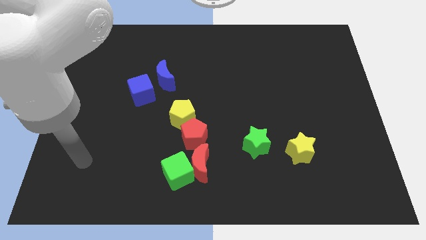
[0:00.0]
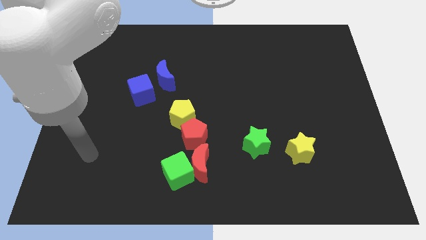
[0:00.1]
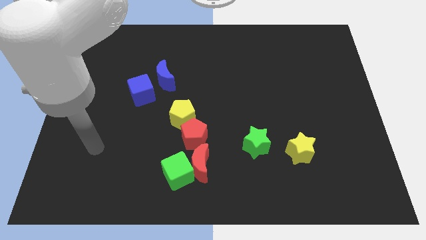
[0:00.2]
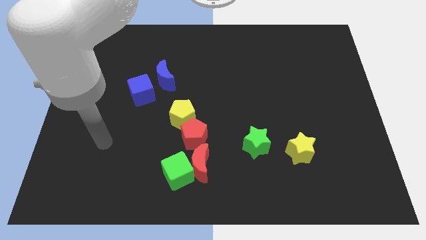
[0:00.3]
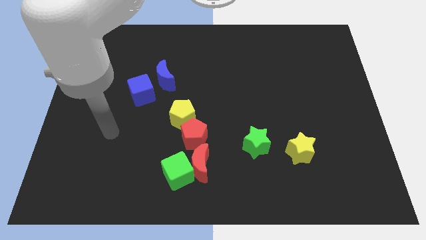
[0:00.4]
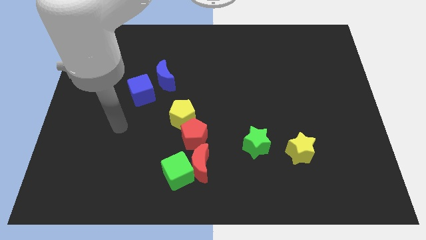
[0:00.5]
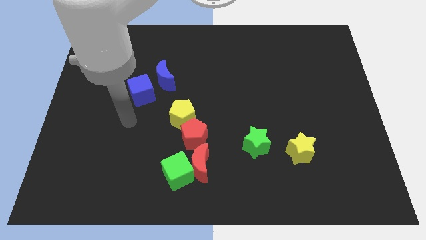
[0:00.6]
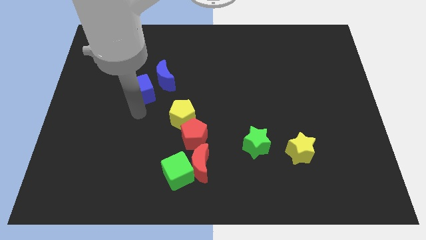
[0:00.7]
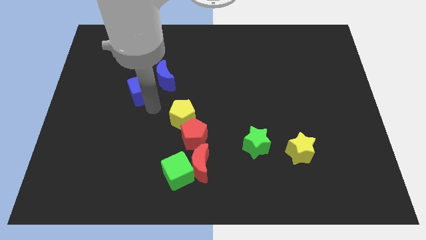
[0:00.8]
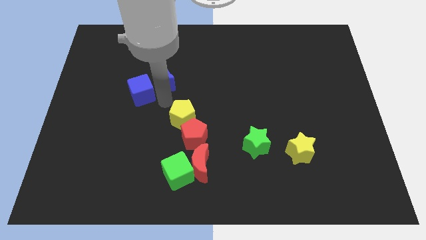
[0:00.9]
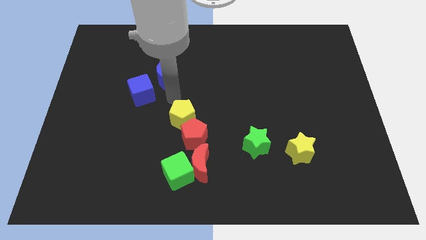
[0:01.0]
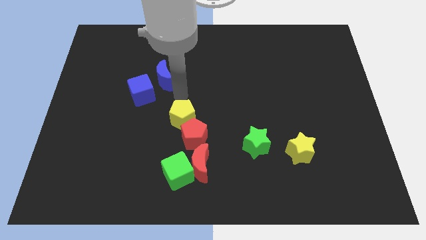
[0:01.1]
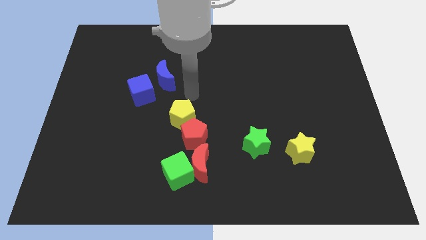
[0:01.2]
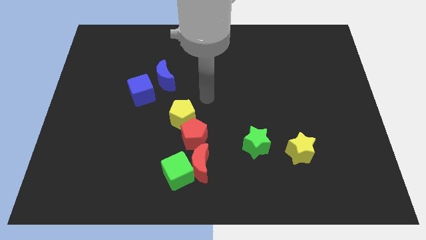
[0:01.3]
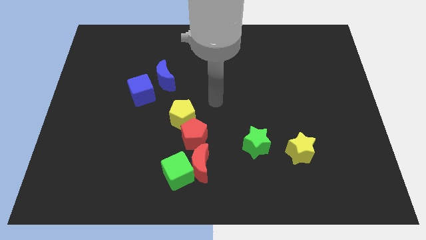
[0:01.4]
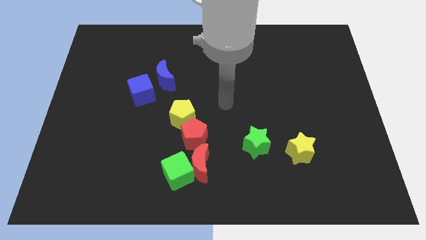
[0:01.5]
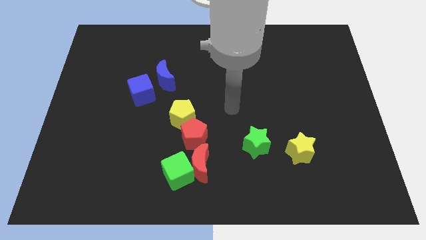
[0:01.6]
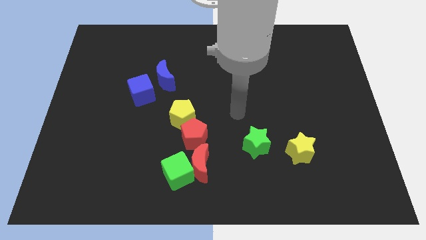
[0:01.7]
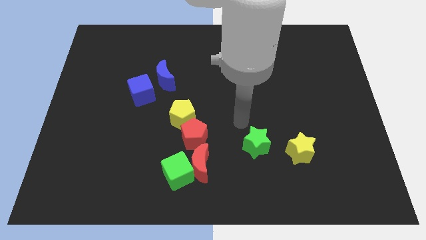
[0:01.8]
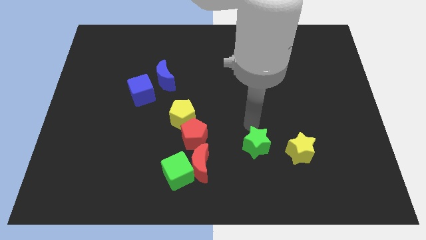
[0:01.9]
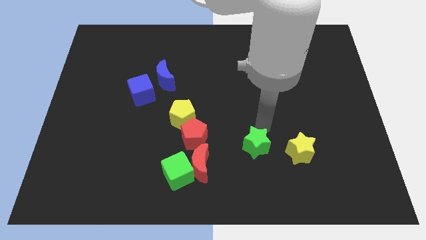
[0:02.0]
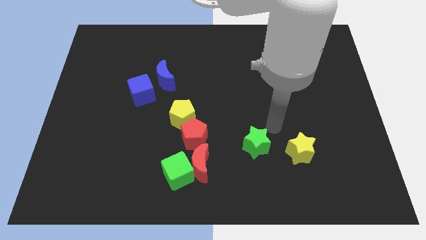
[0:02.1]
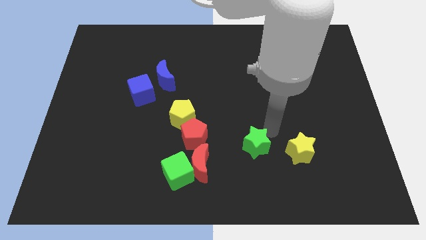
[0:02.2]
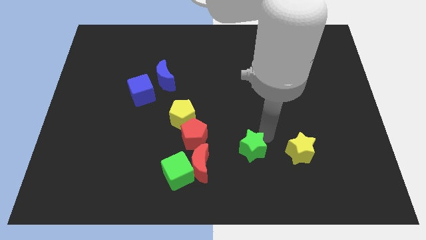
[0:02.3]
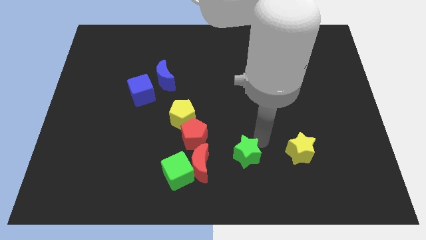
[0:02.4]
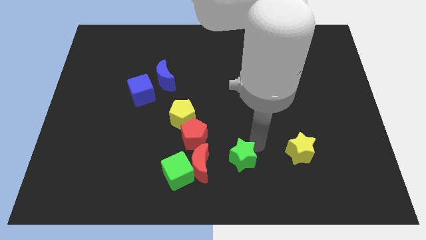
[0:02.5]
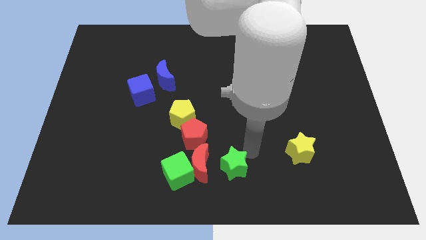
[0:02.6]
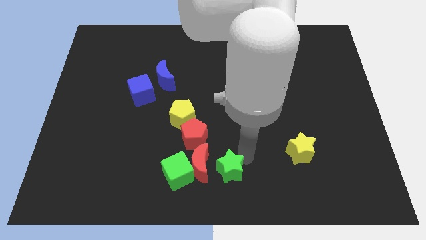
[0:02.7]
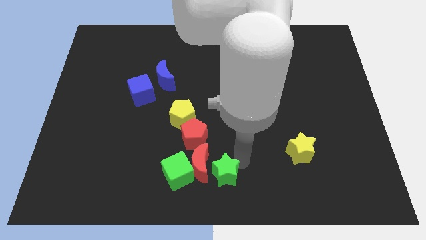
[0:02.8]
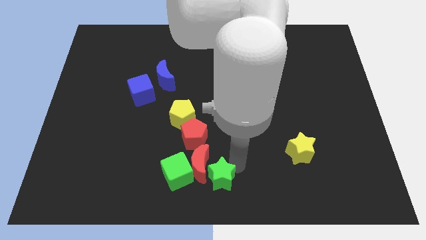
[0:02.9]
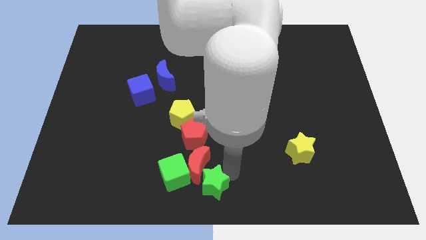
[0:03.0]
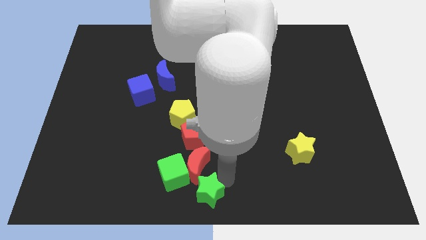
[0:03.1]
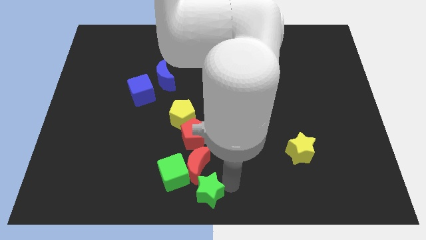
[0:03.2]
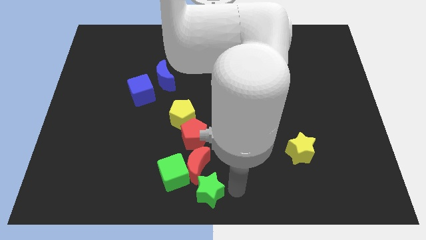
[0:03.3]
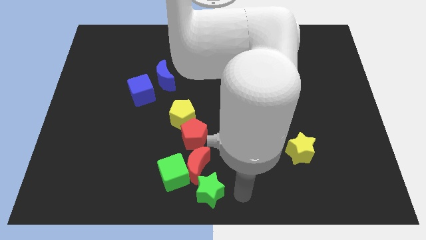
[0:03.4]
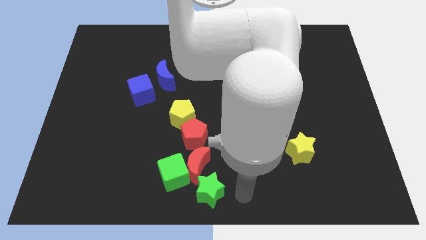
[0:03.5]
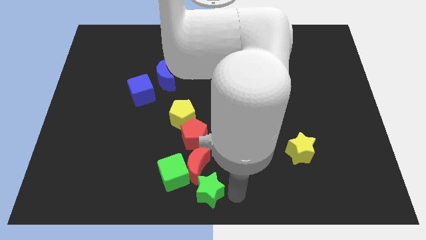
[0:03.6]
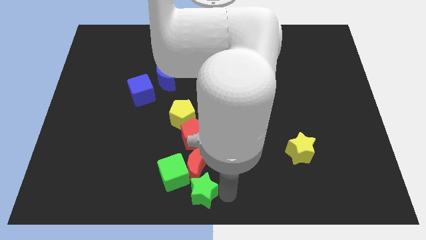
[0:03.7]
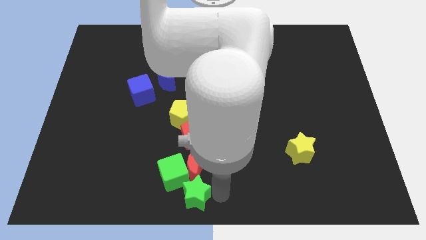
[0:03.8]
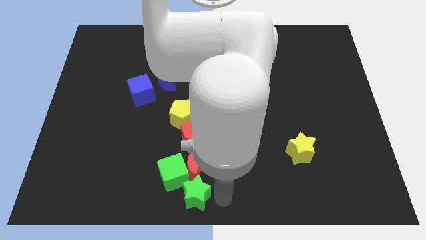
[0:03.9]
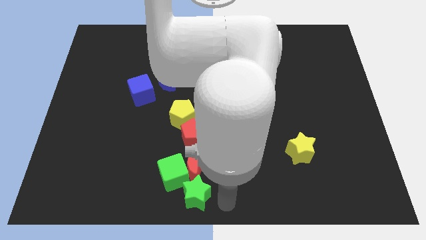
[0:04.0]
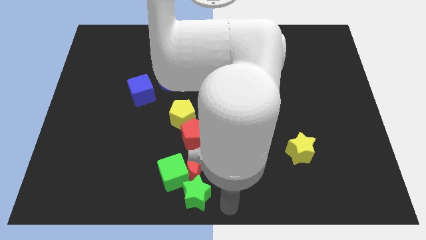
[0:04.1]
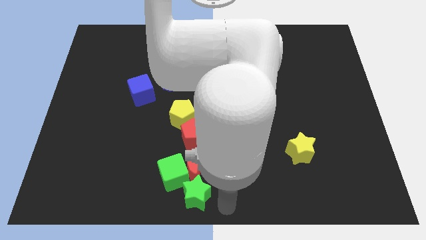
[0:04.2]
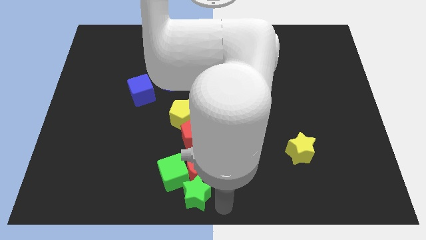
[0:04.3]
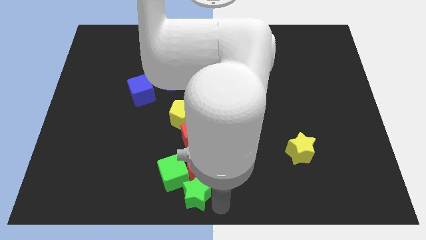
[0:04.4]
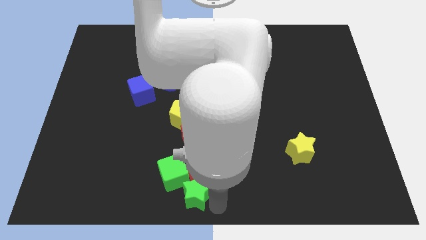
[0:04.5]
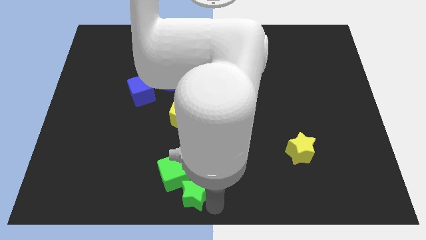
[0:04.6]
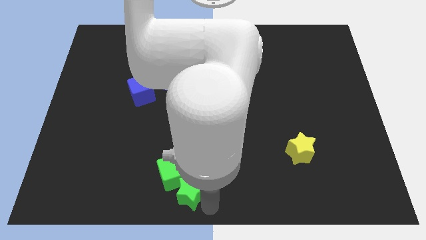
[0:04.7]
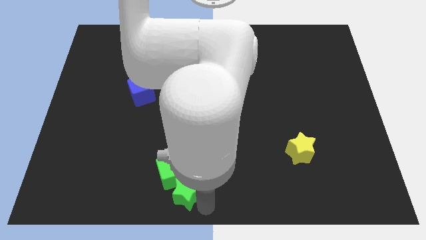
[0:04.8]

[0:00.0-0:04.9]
slide the green star somewhat to the left

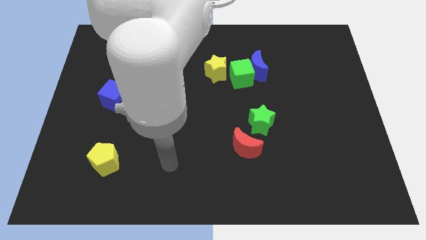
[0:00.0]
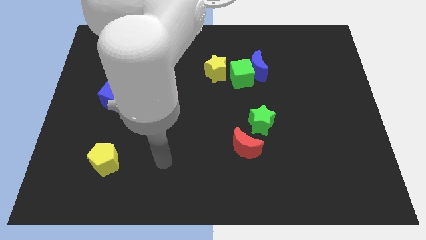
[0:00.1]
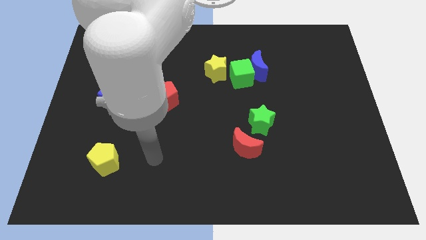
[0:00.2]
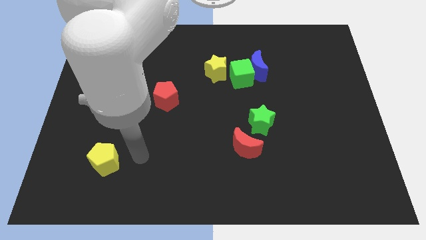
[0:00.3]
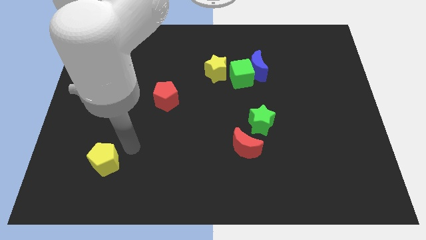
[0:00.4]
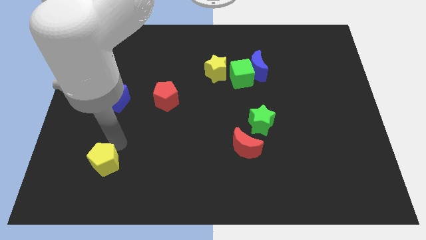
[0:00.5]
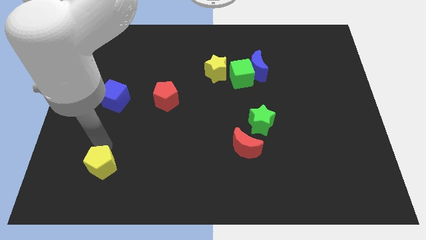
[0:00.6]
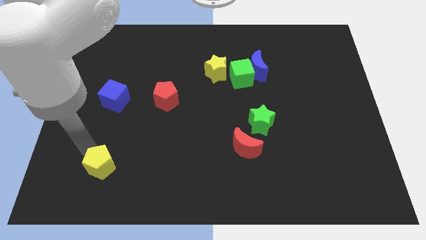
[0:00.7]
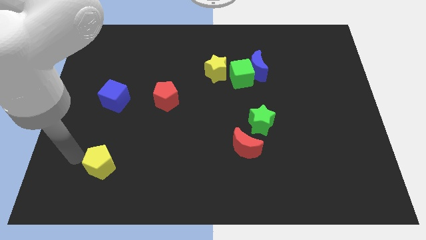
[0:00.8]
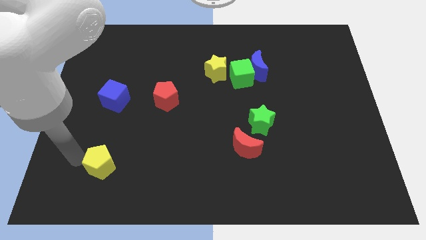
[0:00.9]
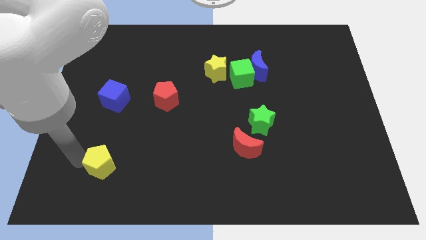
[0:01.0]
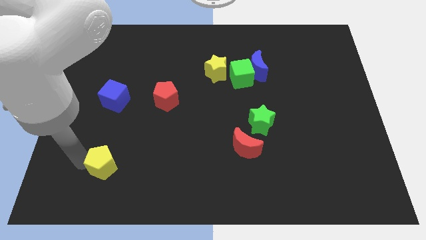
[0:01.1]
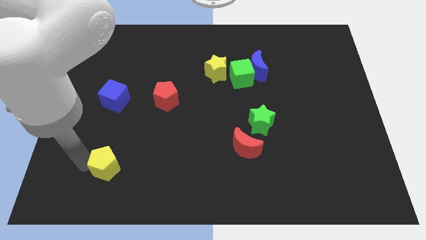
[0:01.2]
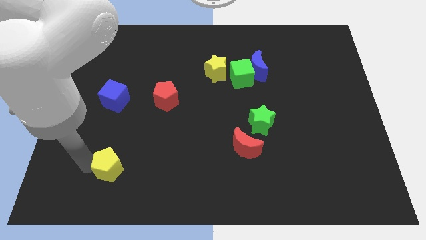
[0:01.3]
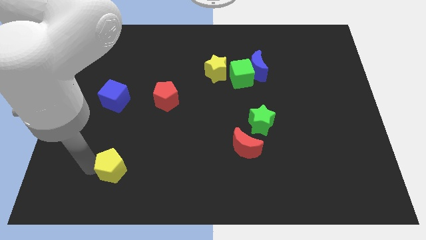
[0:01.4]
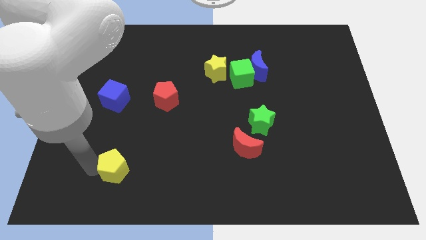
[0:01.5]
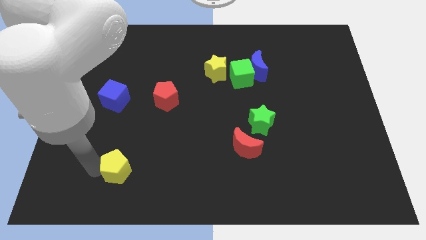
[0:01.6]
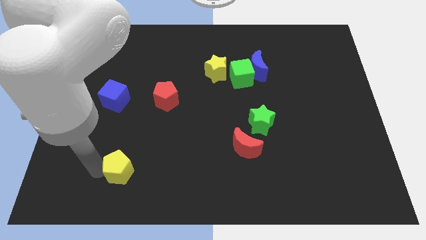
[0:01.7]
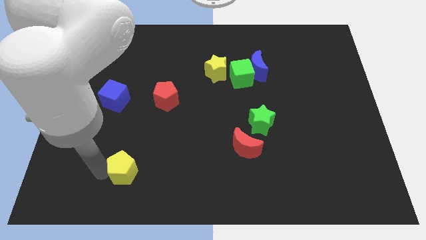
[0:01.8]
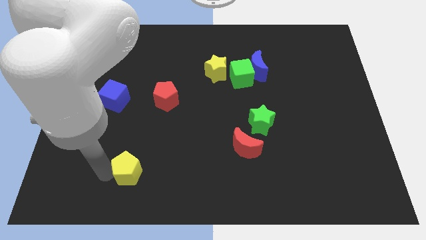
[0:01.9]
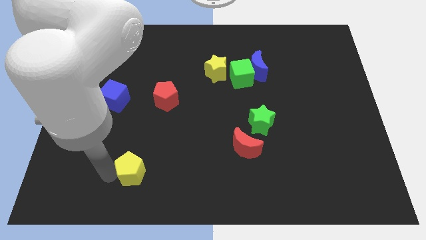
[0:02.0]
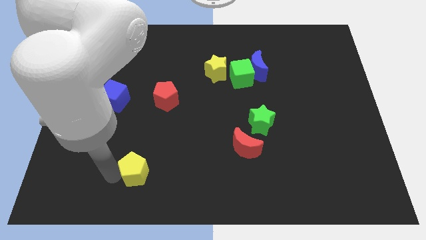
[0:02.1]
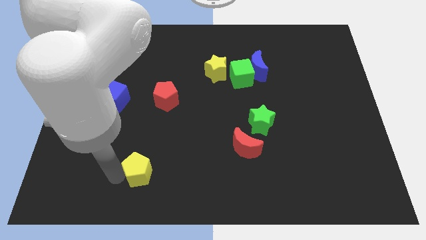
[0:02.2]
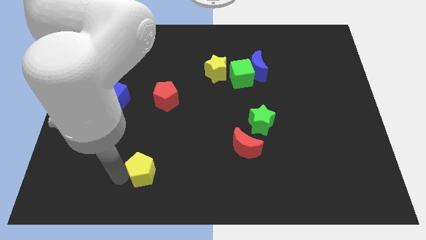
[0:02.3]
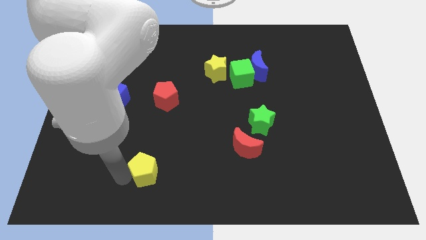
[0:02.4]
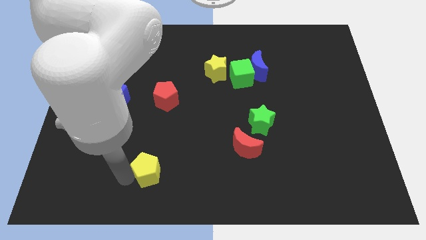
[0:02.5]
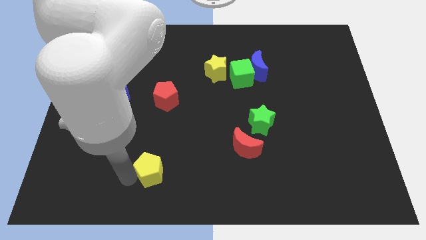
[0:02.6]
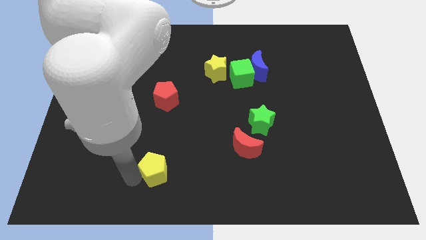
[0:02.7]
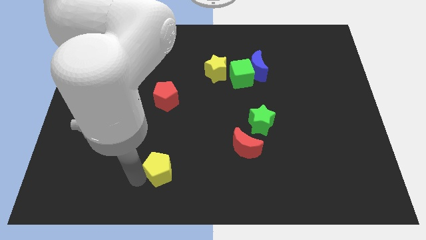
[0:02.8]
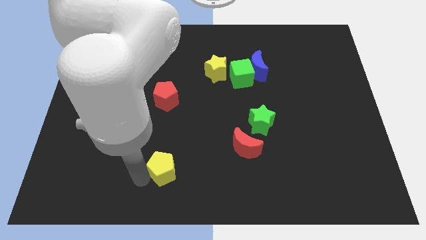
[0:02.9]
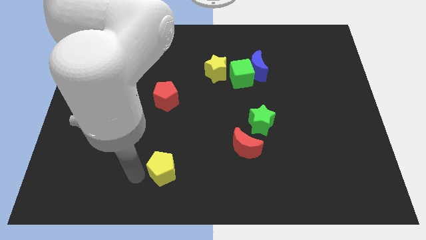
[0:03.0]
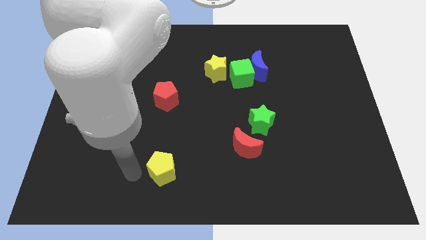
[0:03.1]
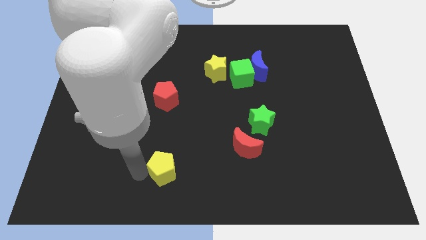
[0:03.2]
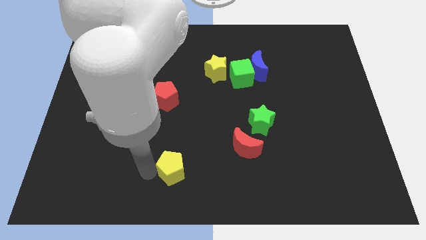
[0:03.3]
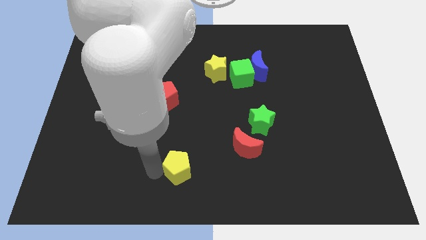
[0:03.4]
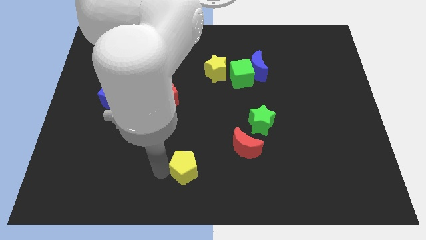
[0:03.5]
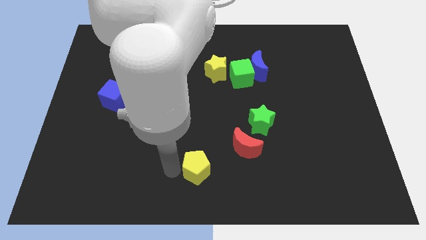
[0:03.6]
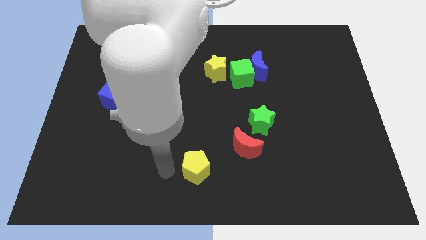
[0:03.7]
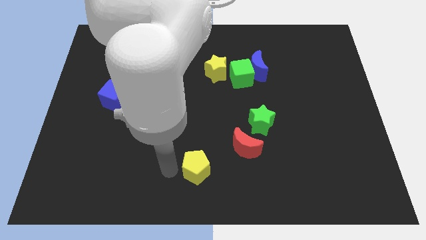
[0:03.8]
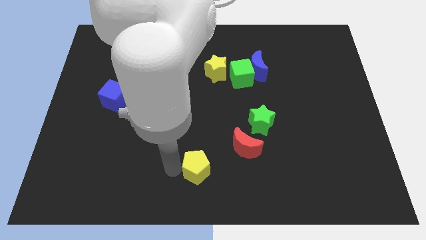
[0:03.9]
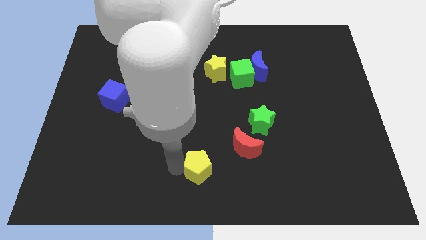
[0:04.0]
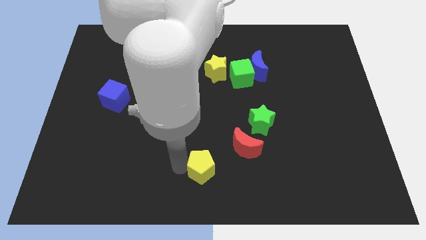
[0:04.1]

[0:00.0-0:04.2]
slide the yellow pentagon right
